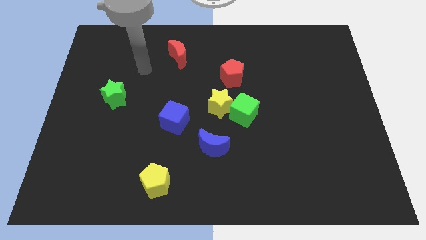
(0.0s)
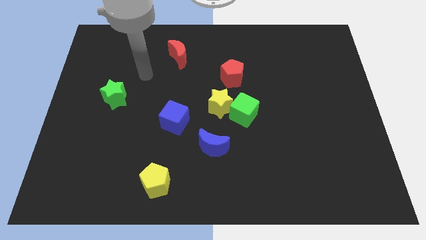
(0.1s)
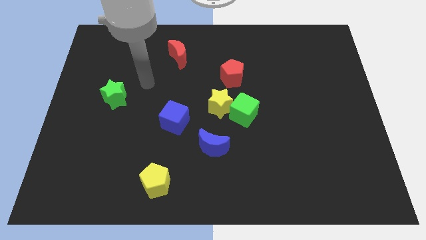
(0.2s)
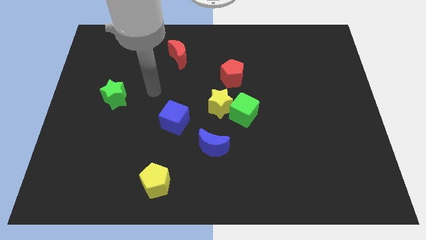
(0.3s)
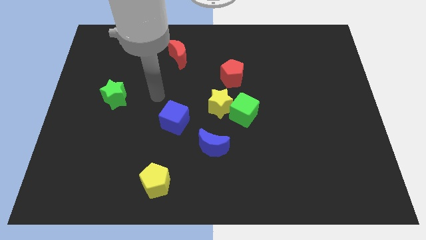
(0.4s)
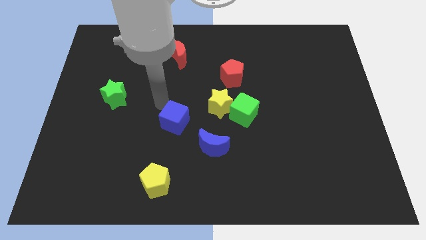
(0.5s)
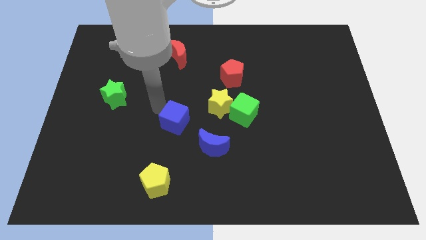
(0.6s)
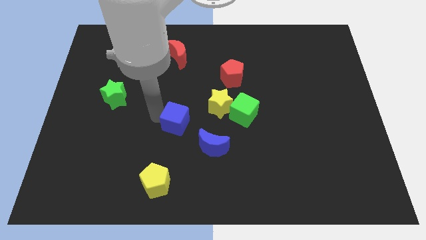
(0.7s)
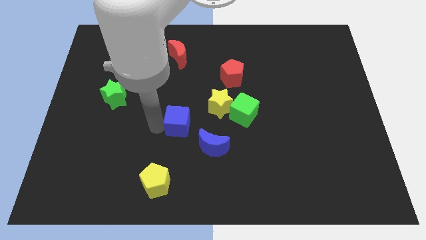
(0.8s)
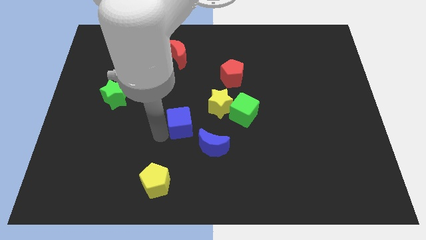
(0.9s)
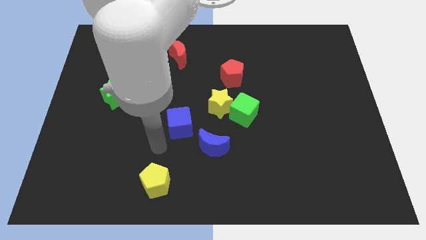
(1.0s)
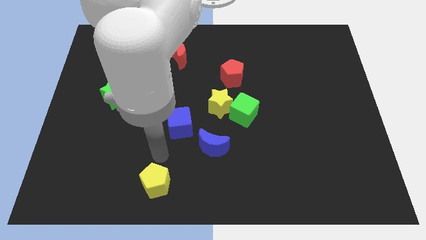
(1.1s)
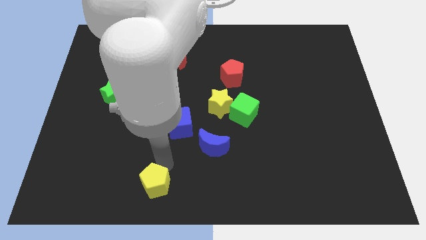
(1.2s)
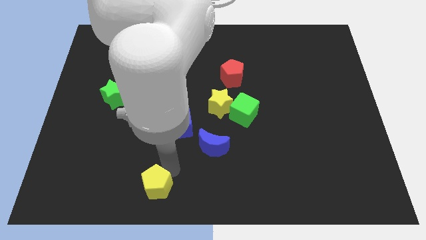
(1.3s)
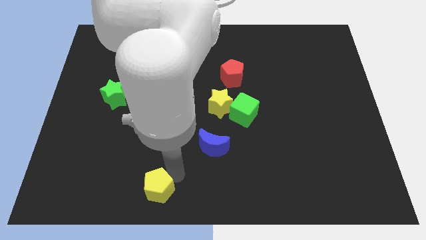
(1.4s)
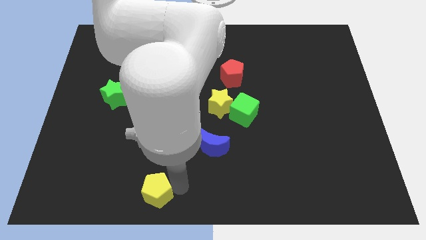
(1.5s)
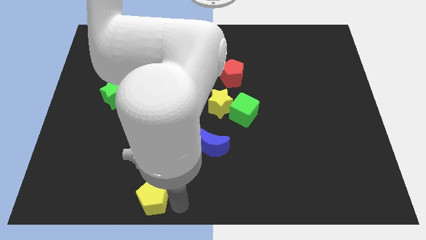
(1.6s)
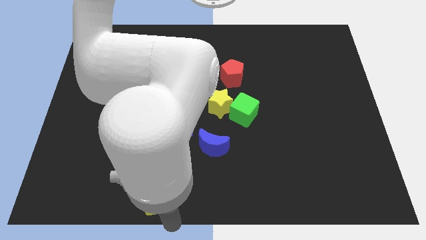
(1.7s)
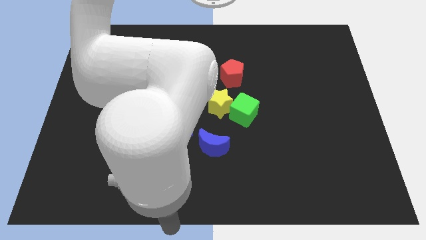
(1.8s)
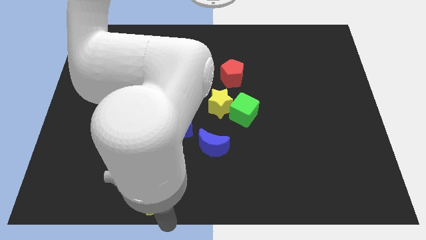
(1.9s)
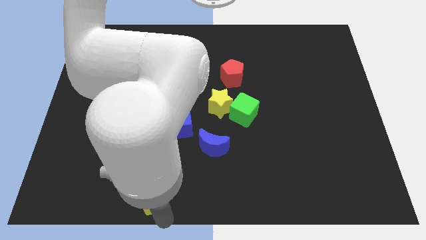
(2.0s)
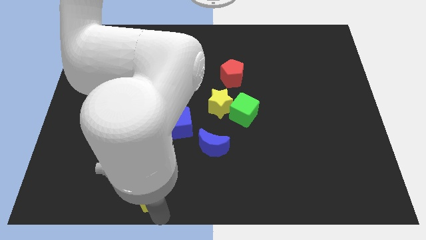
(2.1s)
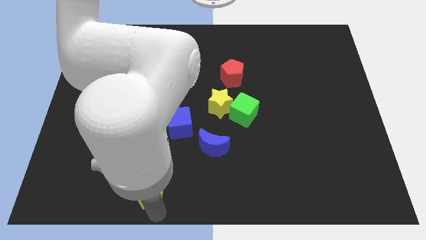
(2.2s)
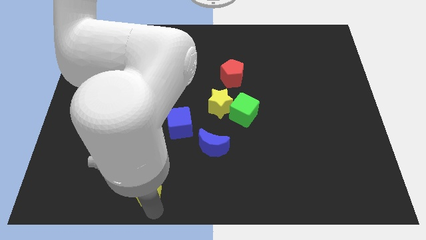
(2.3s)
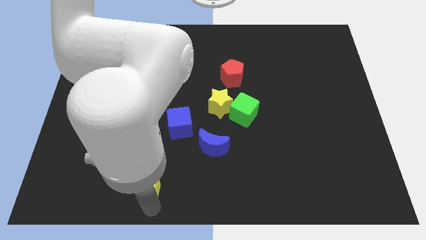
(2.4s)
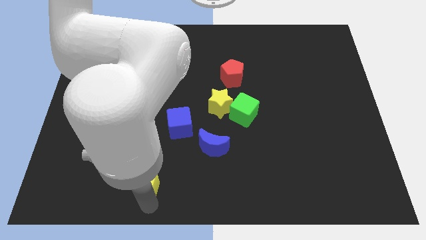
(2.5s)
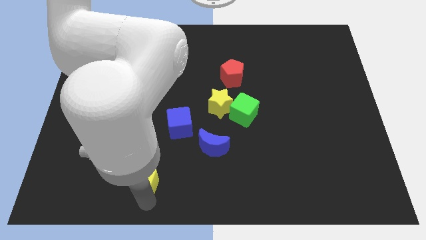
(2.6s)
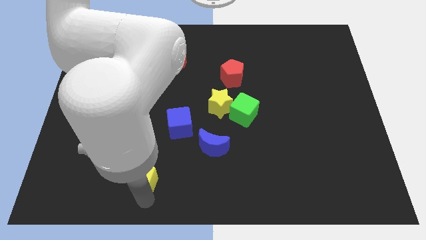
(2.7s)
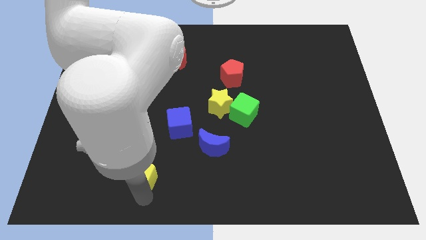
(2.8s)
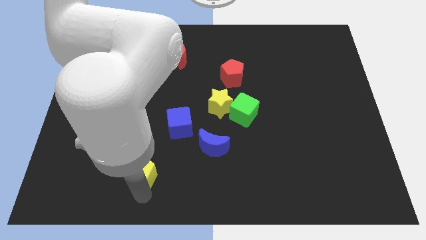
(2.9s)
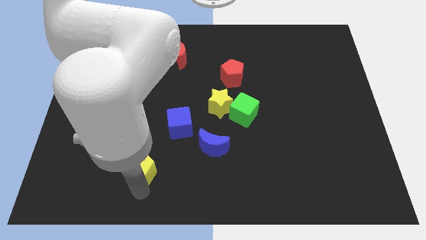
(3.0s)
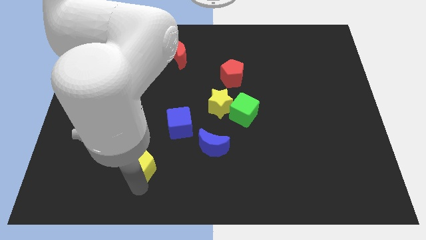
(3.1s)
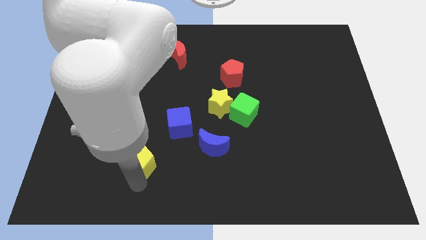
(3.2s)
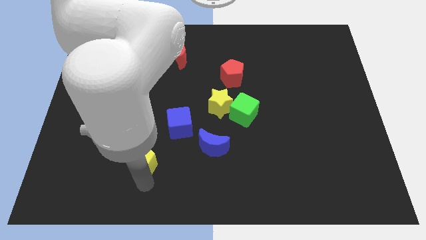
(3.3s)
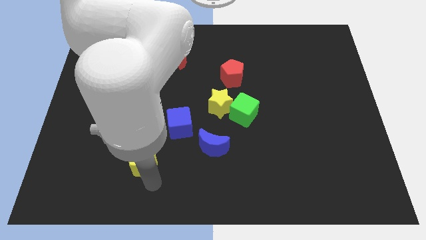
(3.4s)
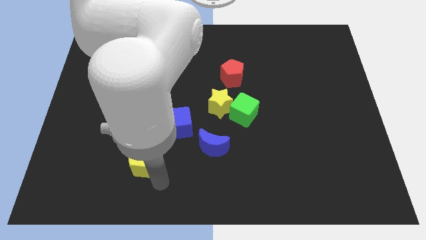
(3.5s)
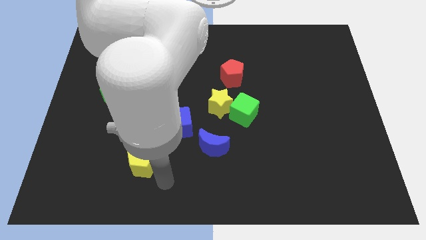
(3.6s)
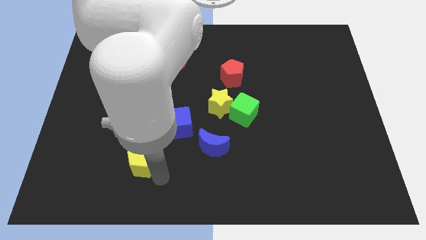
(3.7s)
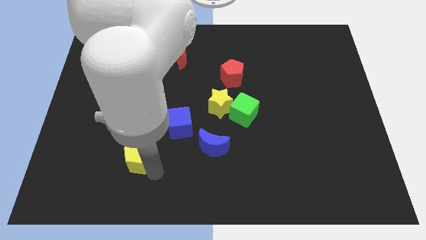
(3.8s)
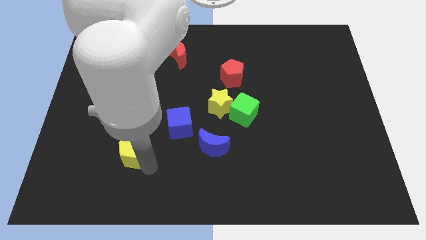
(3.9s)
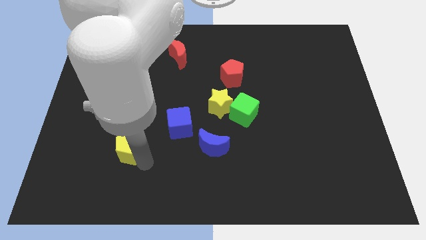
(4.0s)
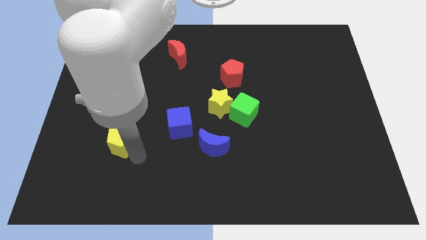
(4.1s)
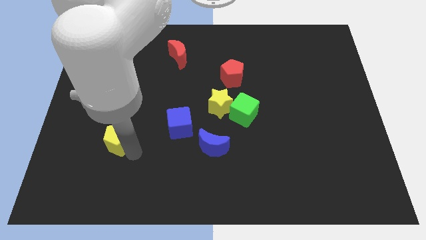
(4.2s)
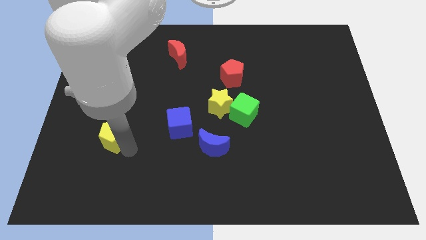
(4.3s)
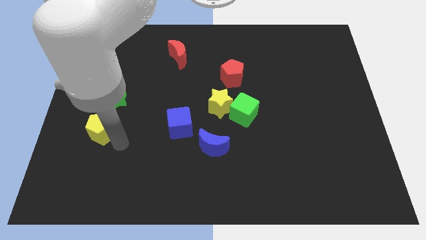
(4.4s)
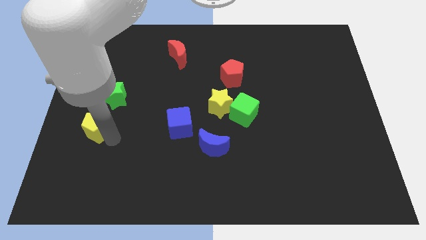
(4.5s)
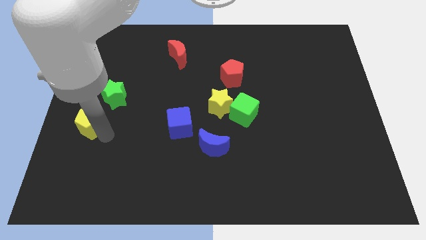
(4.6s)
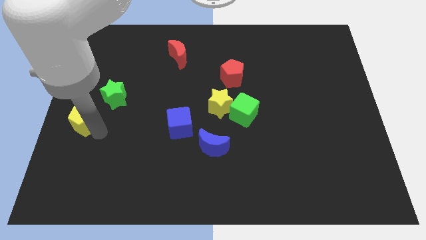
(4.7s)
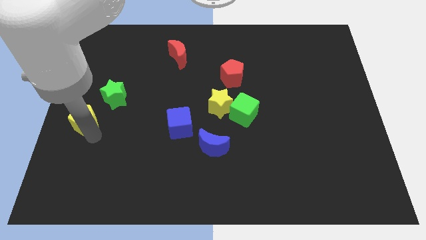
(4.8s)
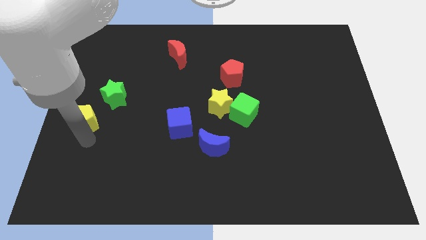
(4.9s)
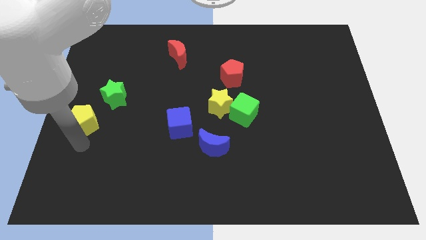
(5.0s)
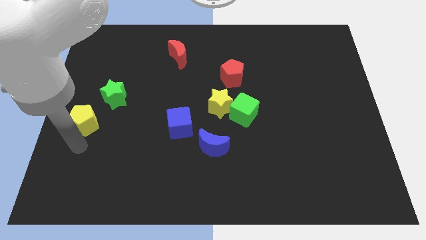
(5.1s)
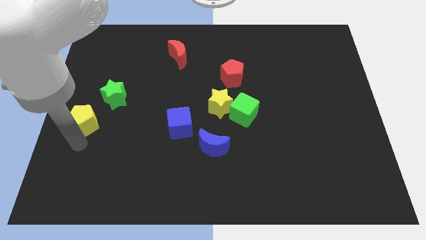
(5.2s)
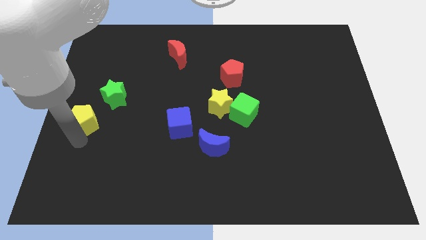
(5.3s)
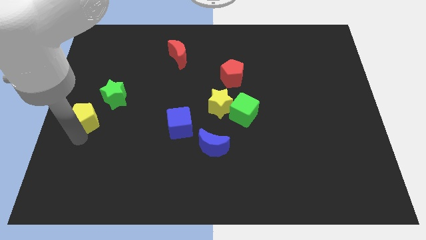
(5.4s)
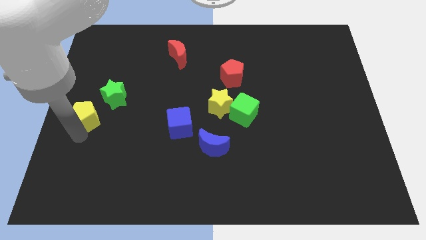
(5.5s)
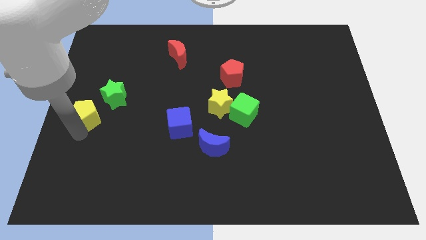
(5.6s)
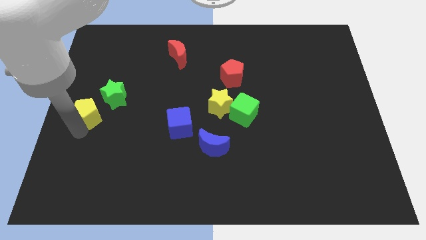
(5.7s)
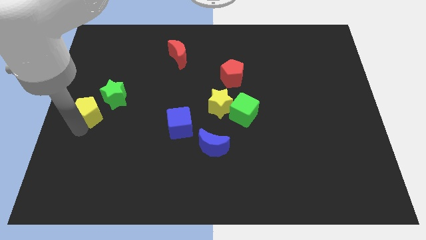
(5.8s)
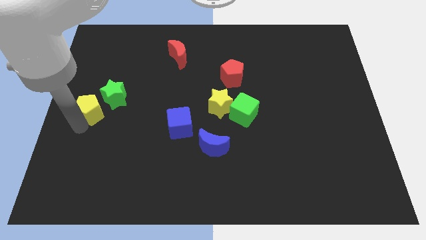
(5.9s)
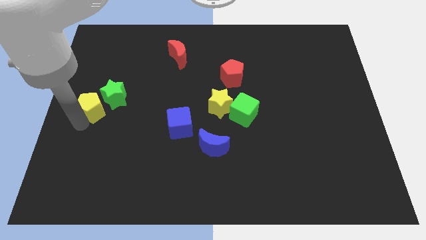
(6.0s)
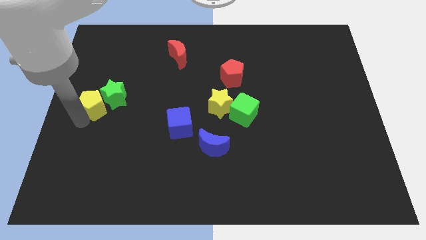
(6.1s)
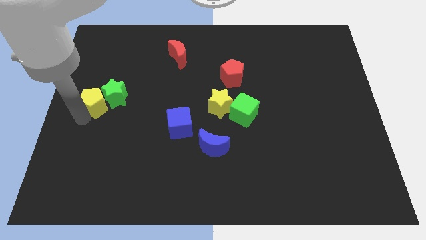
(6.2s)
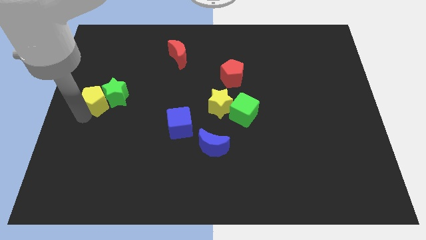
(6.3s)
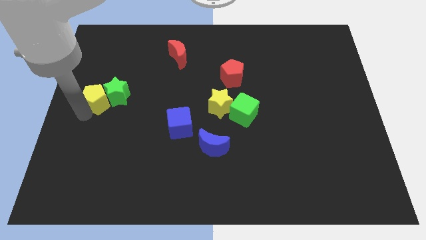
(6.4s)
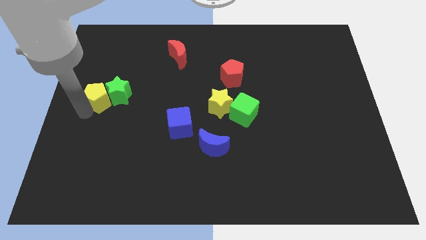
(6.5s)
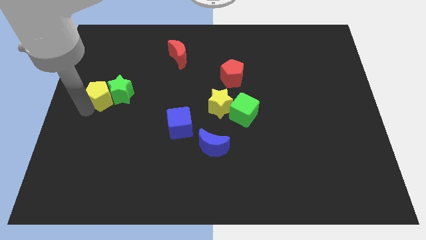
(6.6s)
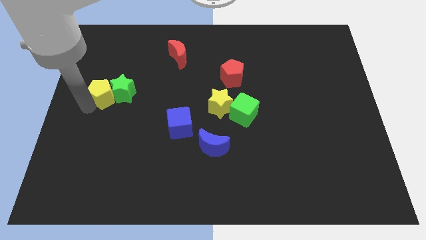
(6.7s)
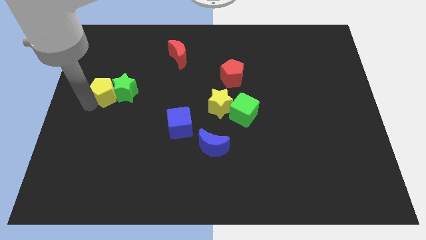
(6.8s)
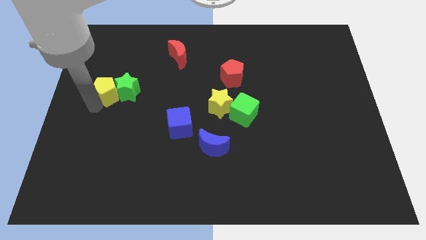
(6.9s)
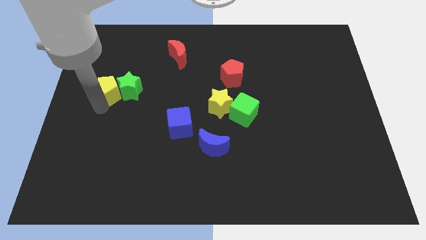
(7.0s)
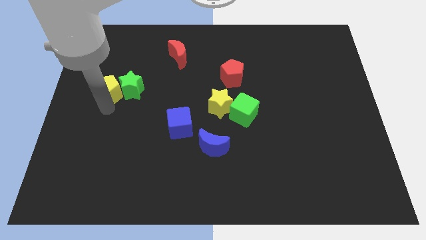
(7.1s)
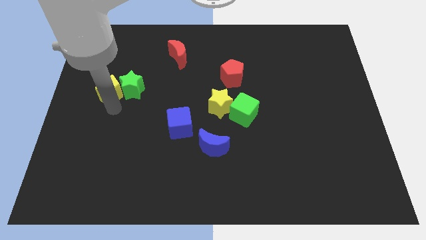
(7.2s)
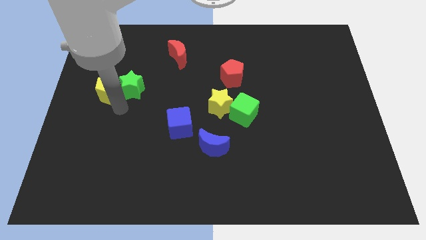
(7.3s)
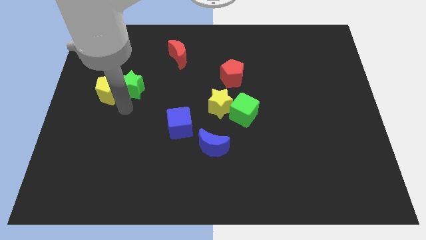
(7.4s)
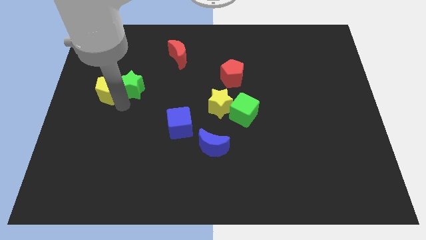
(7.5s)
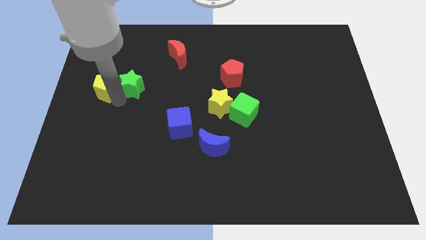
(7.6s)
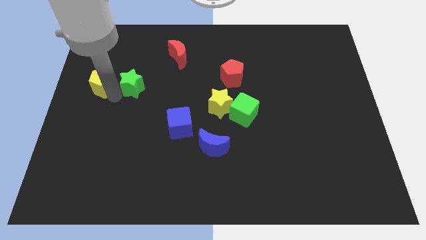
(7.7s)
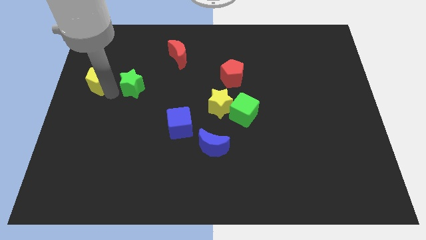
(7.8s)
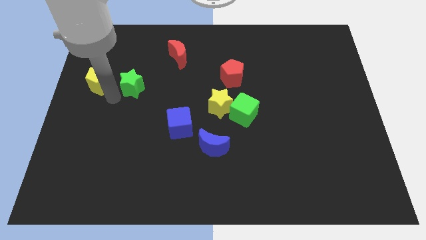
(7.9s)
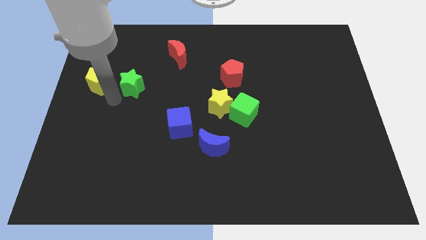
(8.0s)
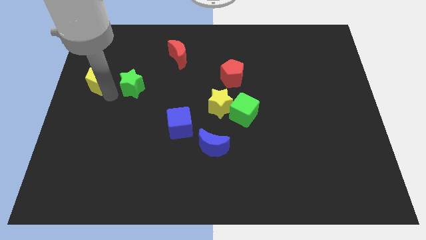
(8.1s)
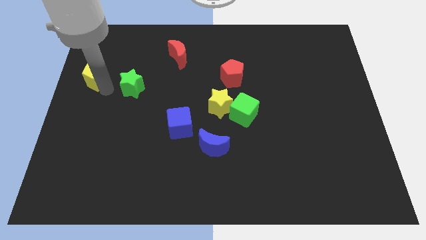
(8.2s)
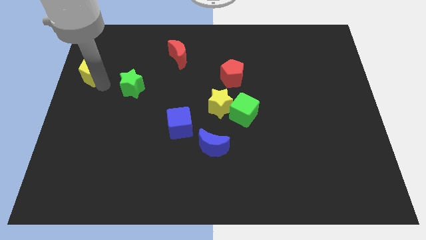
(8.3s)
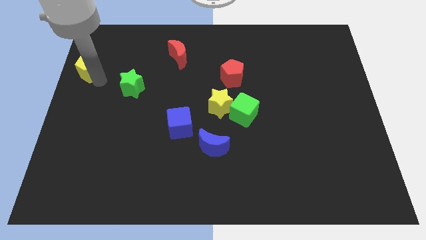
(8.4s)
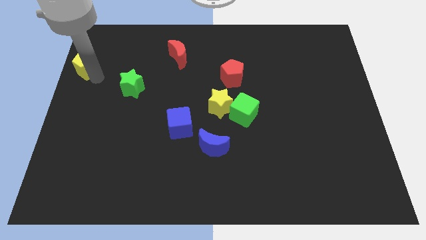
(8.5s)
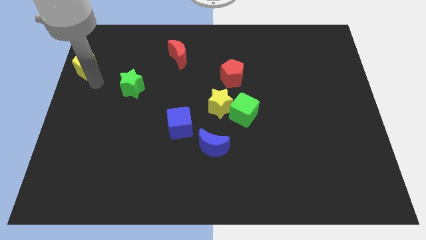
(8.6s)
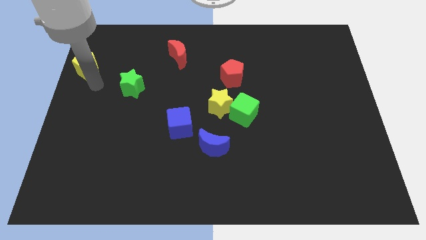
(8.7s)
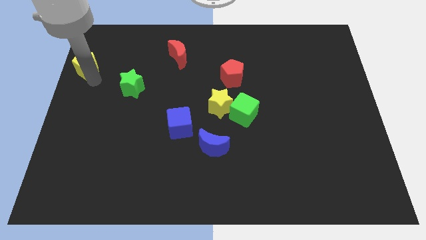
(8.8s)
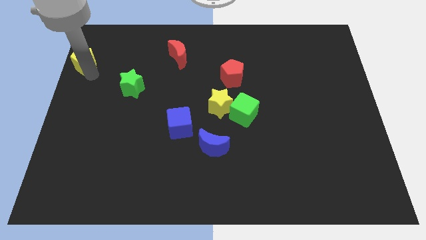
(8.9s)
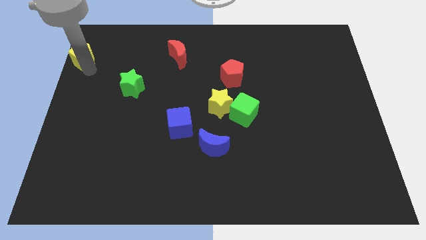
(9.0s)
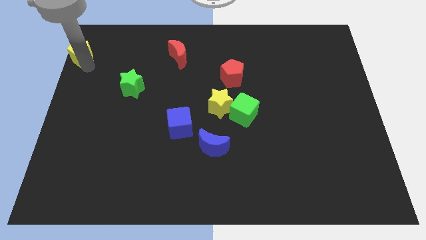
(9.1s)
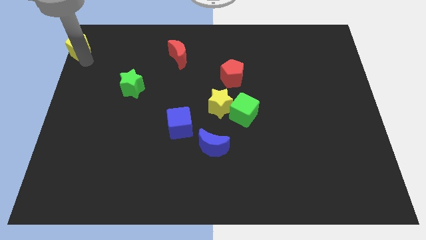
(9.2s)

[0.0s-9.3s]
slide the yellow pentagon to the top left
